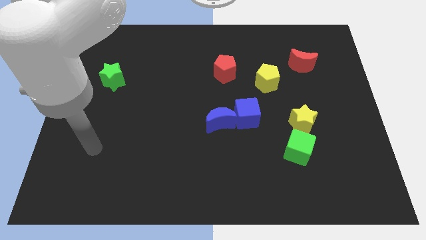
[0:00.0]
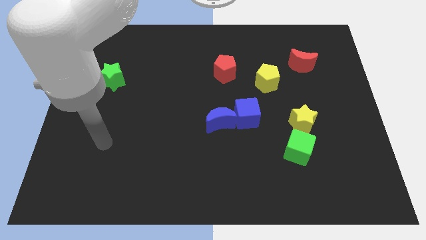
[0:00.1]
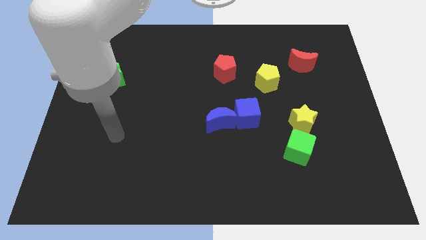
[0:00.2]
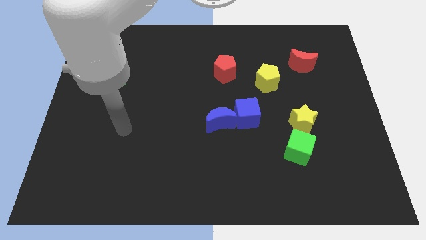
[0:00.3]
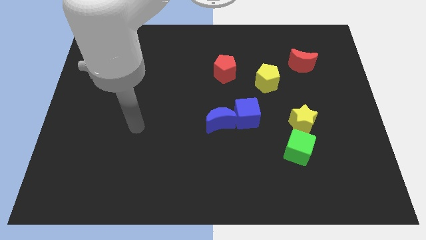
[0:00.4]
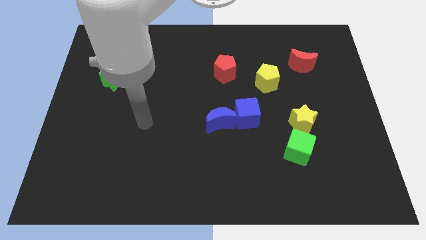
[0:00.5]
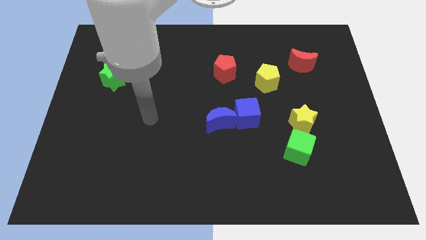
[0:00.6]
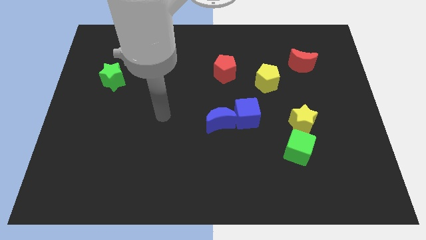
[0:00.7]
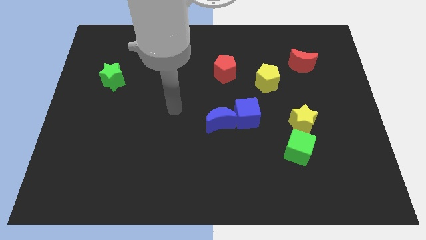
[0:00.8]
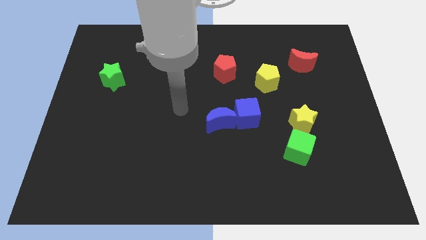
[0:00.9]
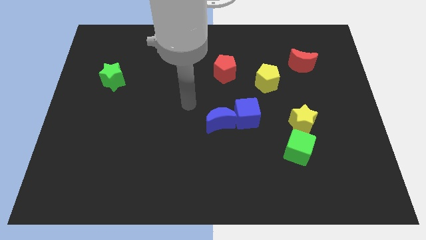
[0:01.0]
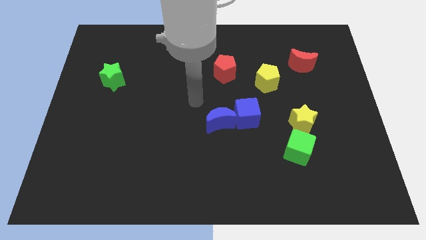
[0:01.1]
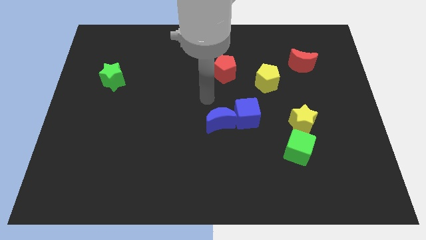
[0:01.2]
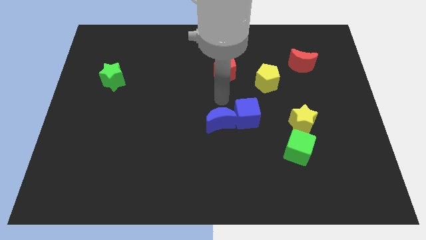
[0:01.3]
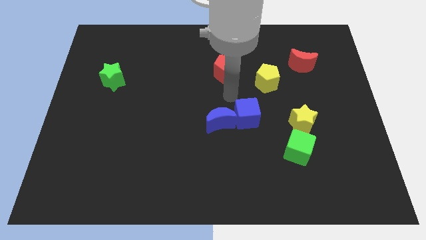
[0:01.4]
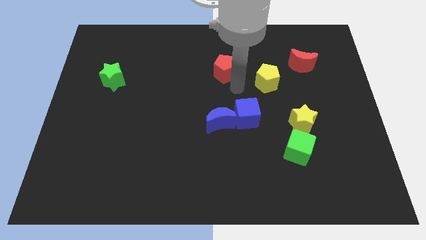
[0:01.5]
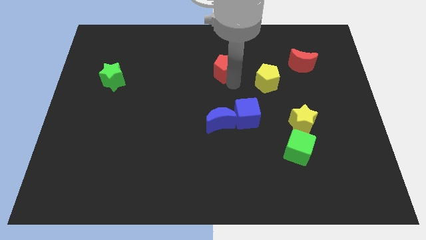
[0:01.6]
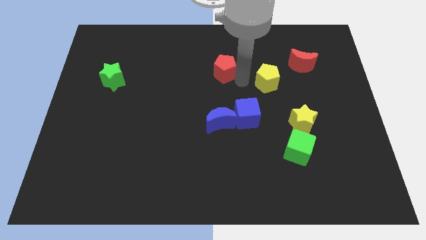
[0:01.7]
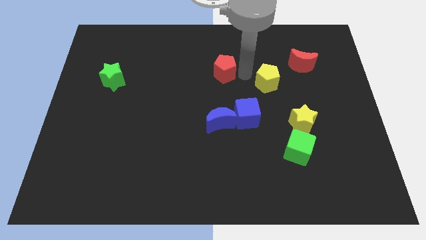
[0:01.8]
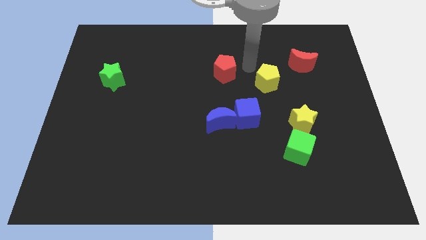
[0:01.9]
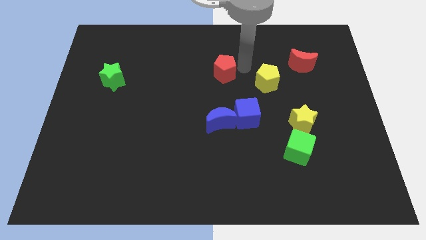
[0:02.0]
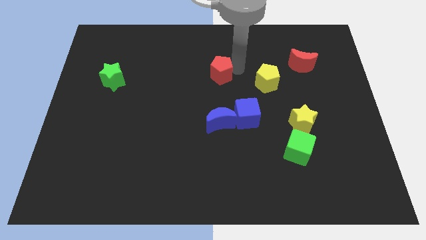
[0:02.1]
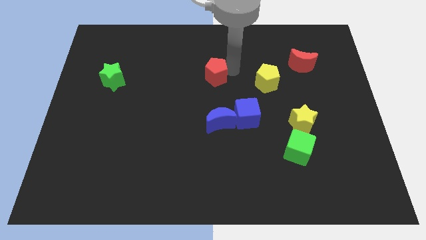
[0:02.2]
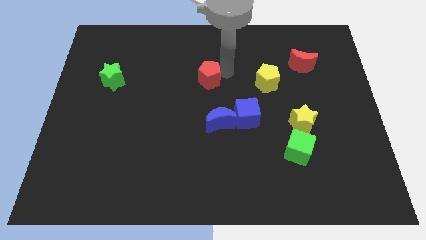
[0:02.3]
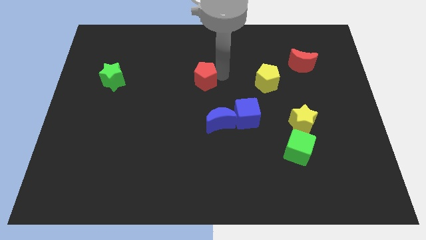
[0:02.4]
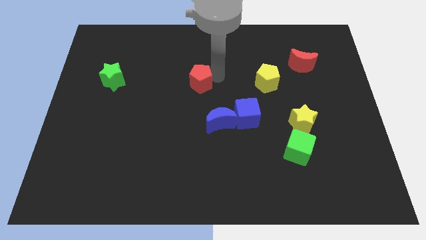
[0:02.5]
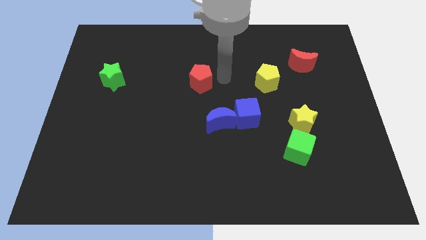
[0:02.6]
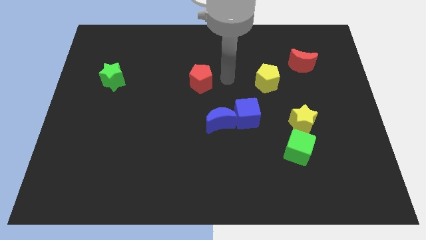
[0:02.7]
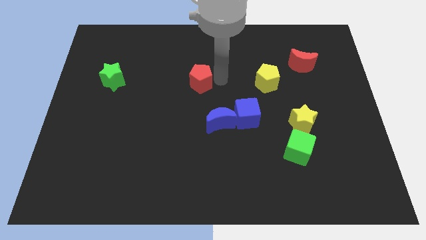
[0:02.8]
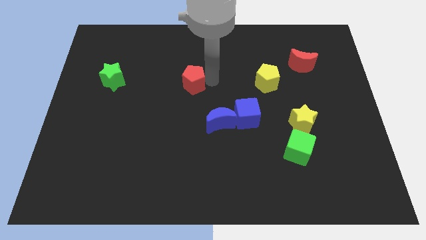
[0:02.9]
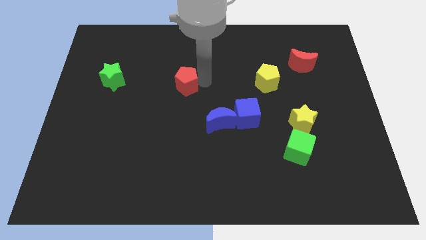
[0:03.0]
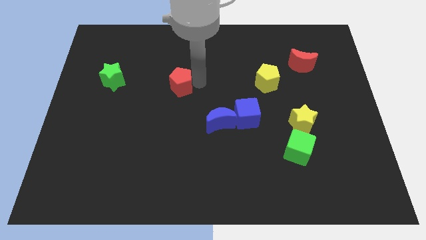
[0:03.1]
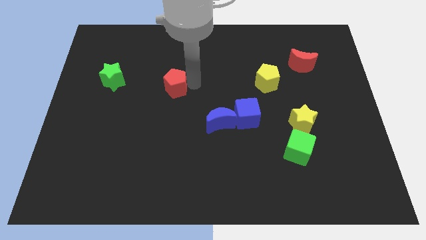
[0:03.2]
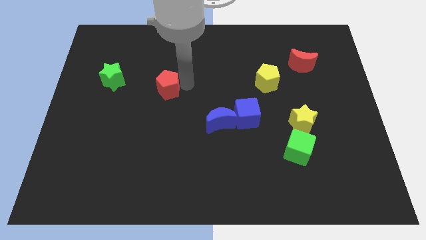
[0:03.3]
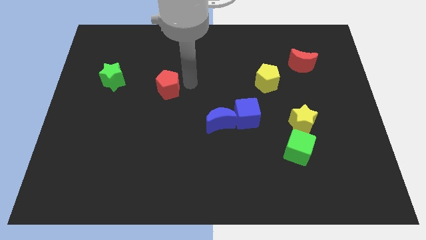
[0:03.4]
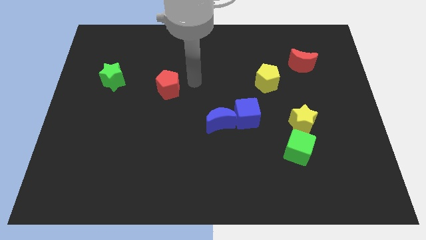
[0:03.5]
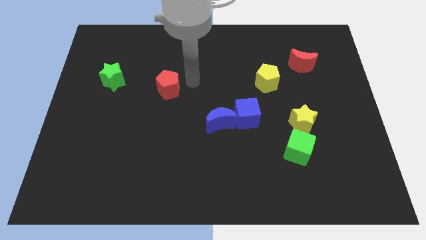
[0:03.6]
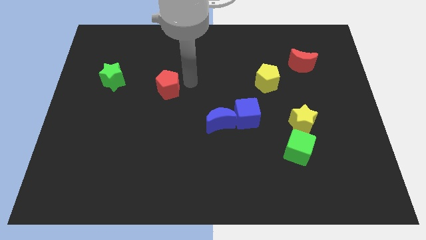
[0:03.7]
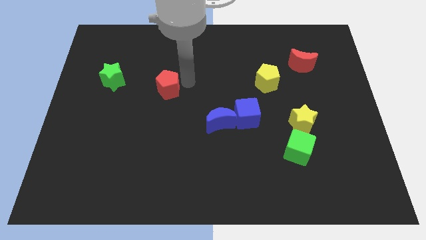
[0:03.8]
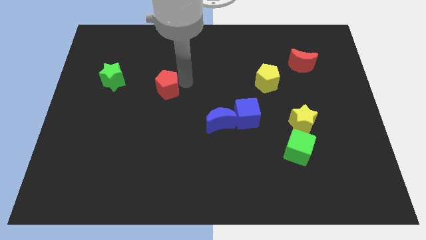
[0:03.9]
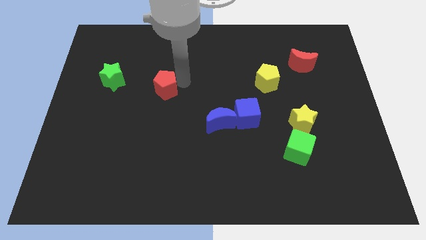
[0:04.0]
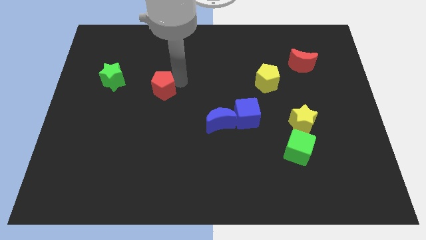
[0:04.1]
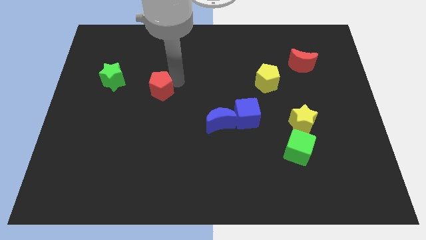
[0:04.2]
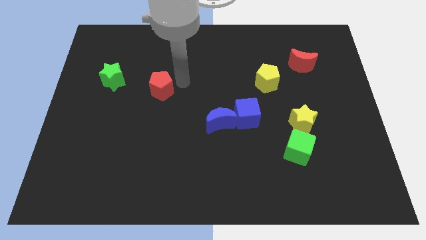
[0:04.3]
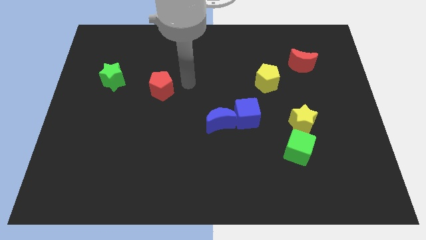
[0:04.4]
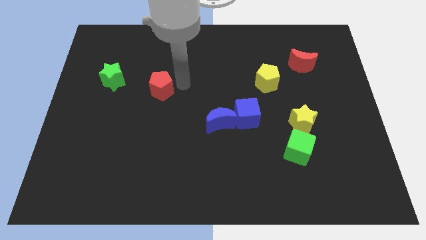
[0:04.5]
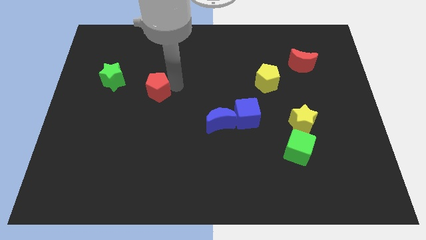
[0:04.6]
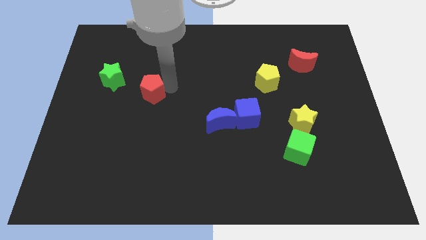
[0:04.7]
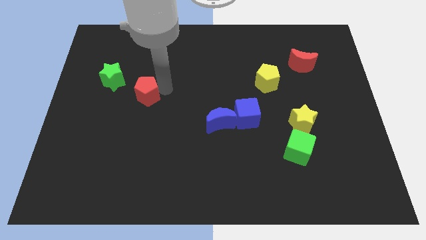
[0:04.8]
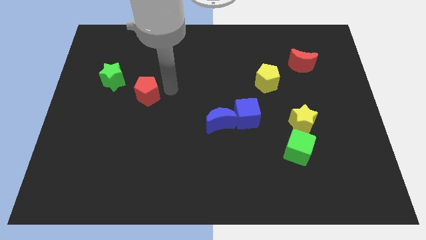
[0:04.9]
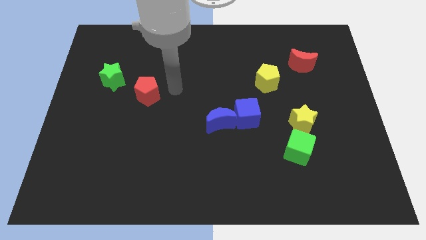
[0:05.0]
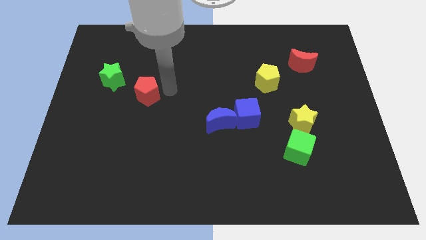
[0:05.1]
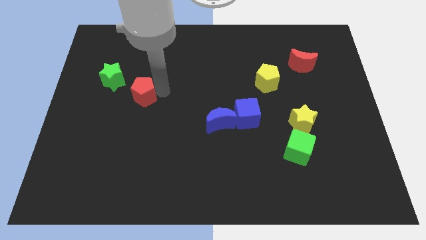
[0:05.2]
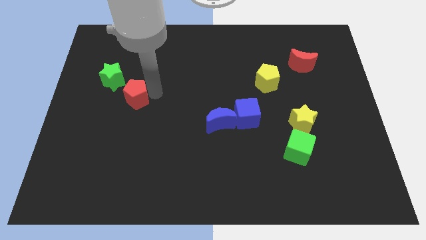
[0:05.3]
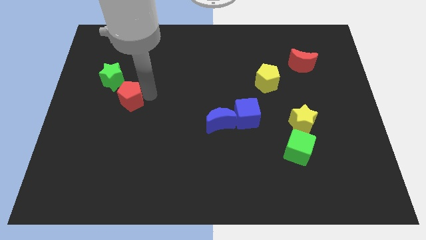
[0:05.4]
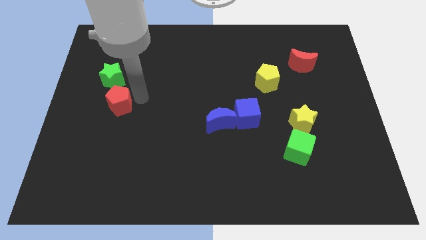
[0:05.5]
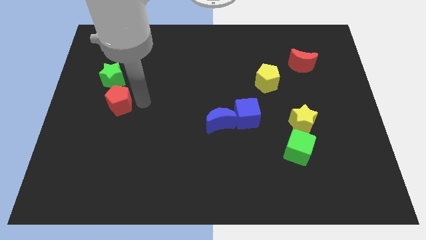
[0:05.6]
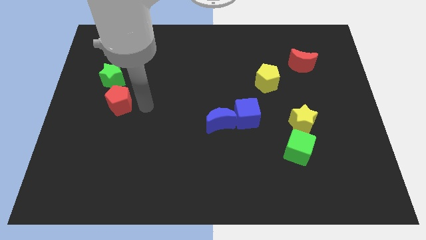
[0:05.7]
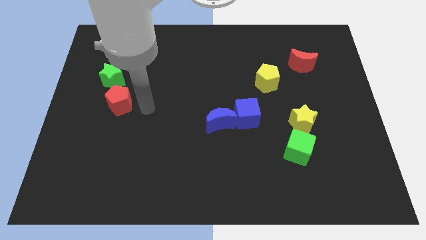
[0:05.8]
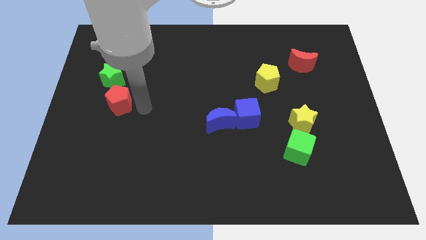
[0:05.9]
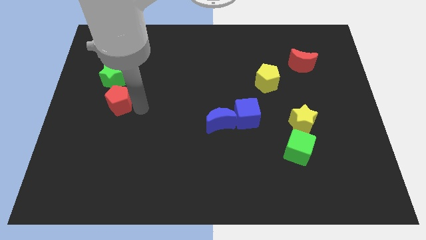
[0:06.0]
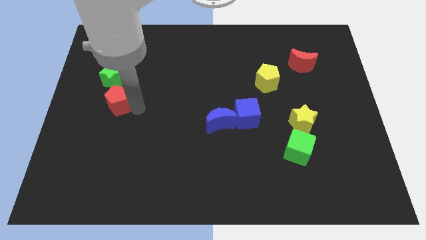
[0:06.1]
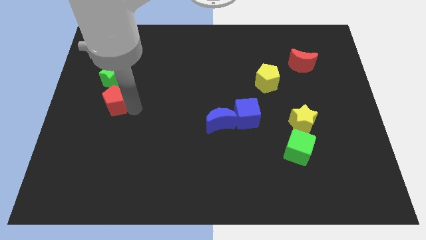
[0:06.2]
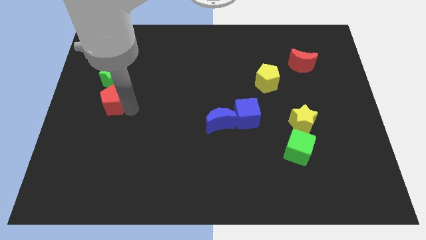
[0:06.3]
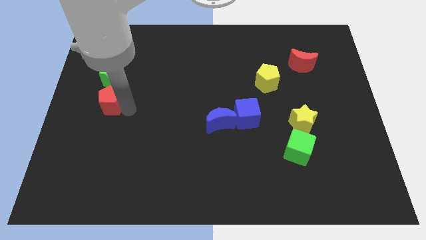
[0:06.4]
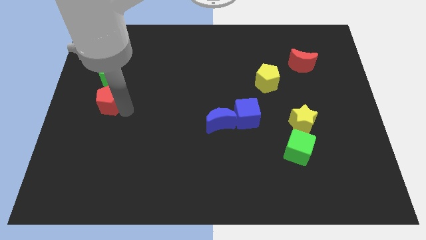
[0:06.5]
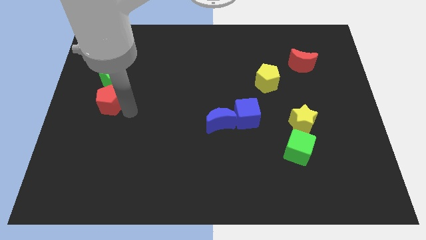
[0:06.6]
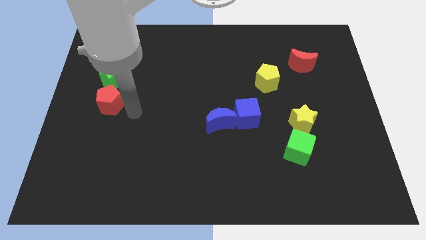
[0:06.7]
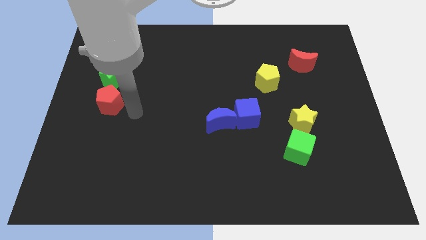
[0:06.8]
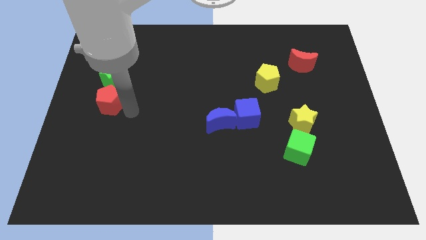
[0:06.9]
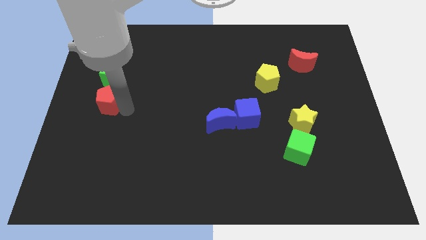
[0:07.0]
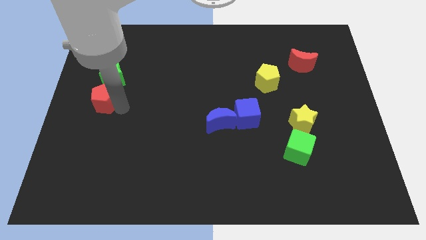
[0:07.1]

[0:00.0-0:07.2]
push the red pentagon to the left side

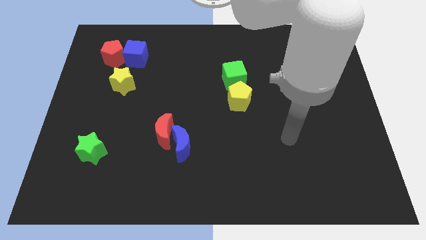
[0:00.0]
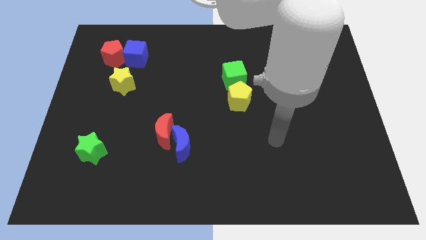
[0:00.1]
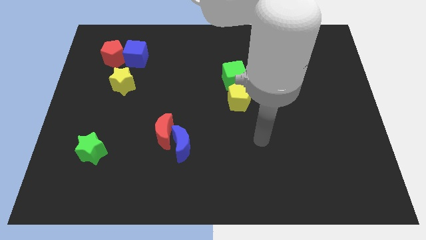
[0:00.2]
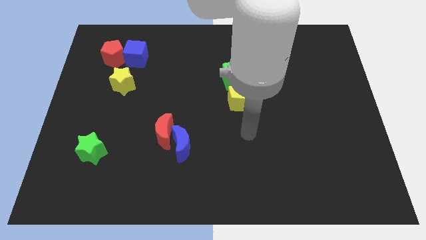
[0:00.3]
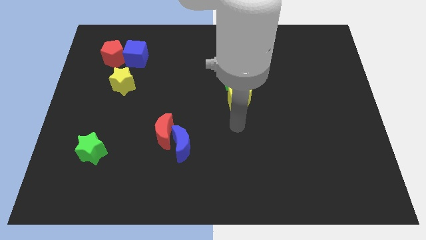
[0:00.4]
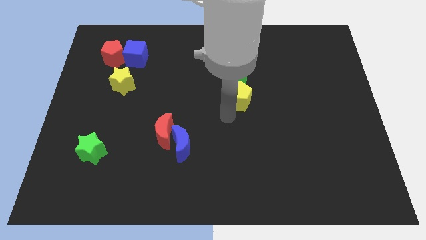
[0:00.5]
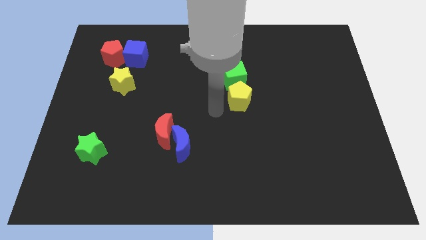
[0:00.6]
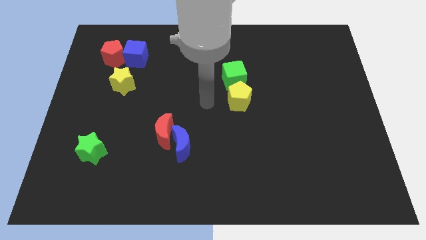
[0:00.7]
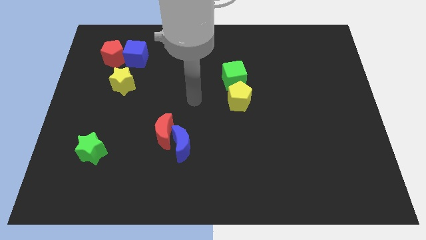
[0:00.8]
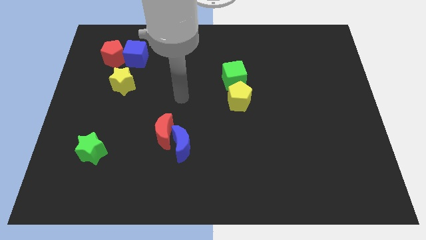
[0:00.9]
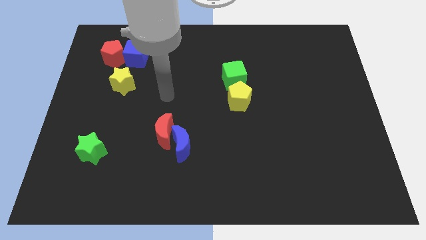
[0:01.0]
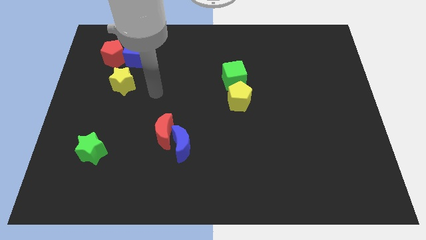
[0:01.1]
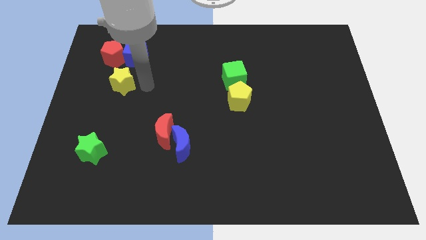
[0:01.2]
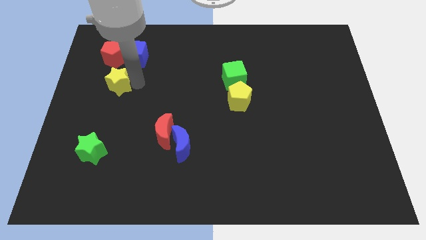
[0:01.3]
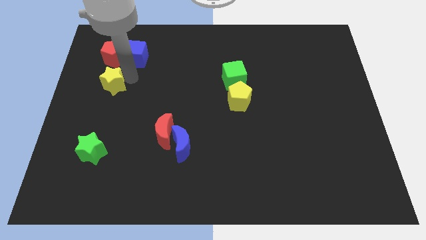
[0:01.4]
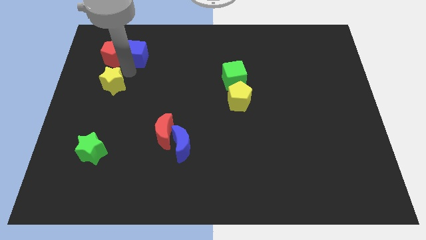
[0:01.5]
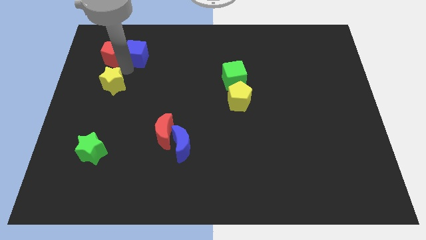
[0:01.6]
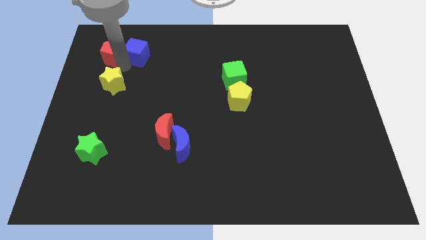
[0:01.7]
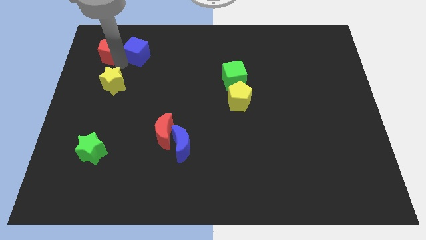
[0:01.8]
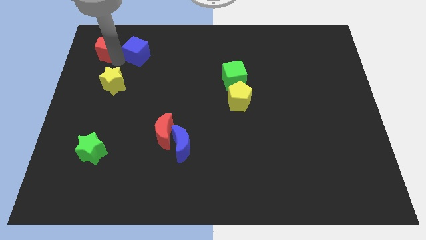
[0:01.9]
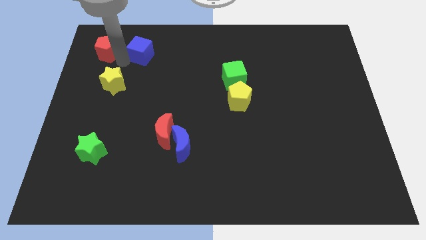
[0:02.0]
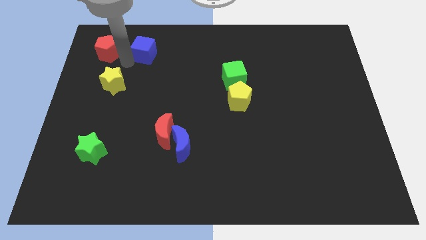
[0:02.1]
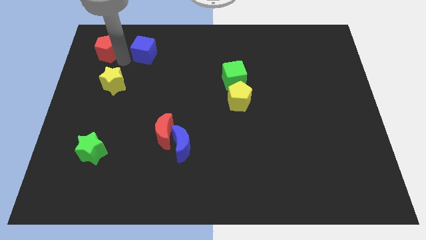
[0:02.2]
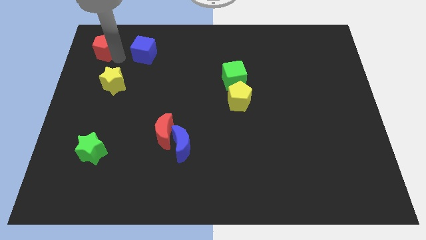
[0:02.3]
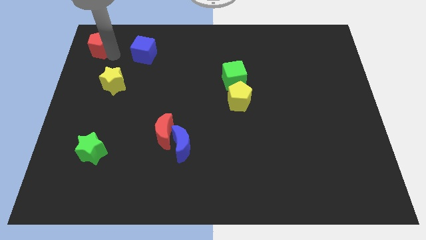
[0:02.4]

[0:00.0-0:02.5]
push the red pentagon to the top left corner
